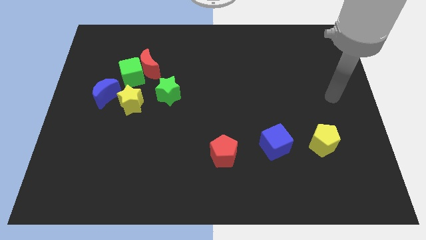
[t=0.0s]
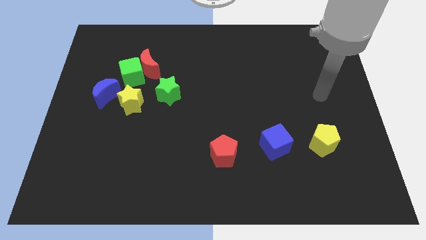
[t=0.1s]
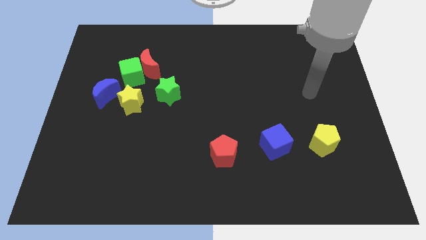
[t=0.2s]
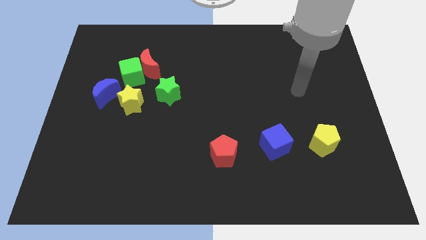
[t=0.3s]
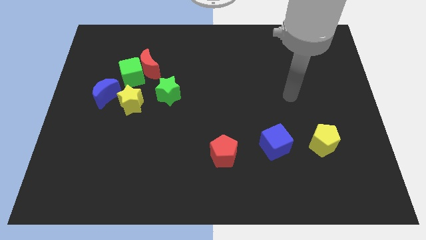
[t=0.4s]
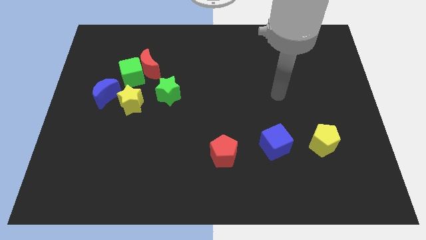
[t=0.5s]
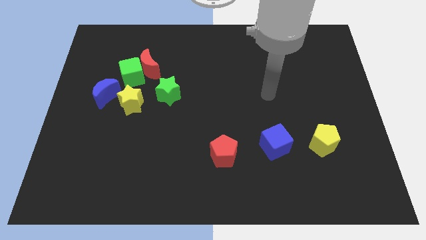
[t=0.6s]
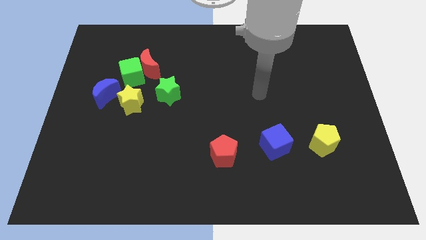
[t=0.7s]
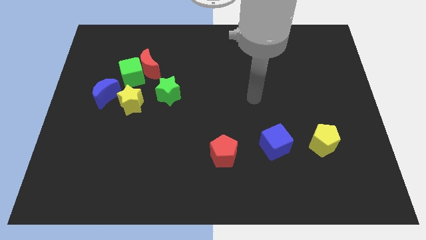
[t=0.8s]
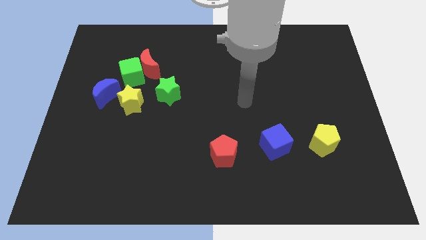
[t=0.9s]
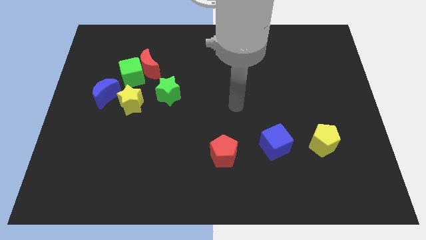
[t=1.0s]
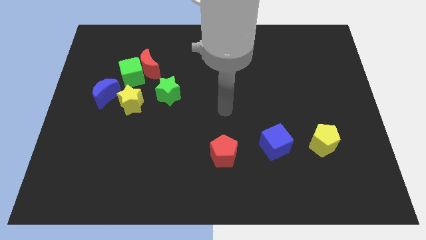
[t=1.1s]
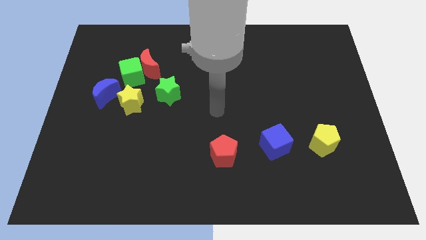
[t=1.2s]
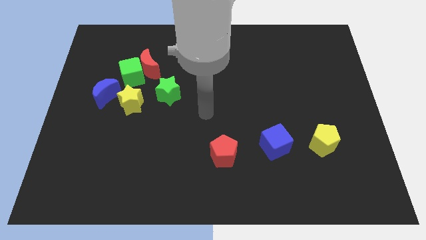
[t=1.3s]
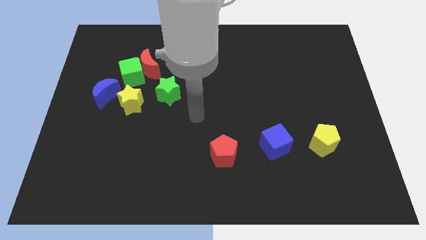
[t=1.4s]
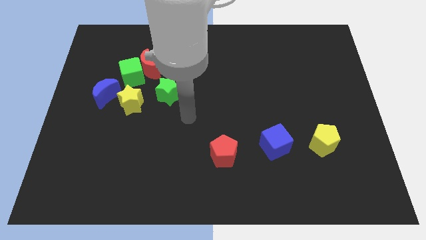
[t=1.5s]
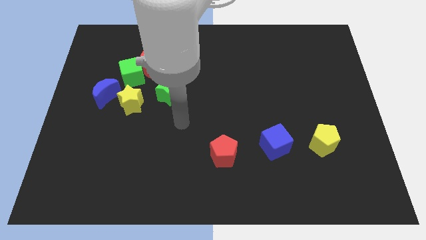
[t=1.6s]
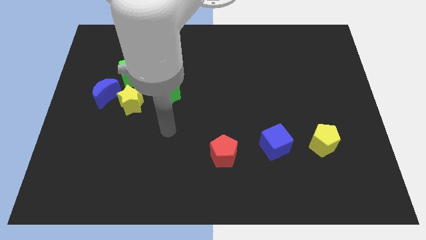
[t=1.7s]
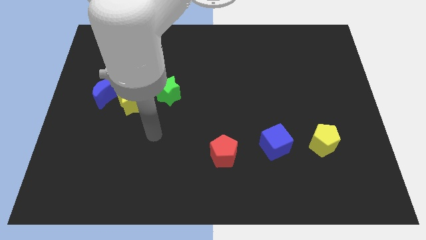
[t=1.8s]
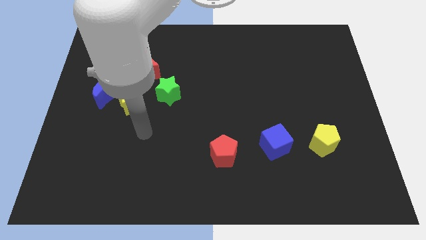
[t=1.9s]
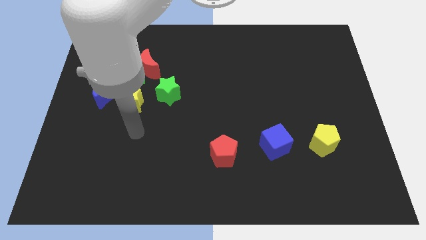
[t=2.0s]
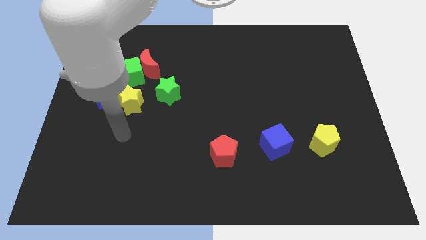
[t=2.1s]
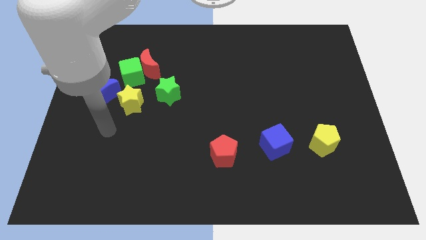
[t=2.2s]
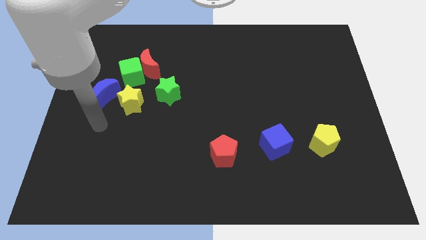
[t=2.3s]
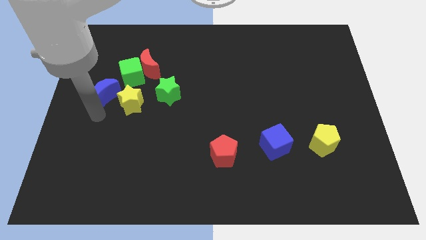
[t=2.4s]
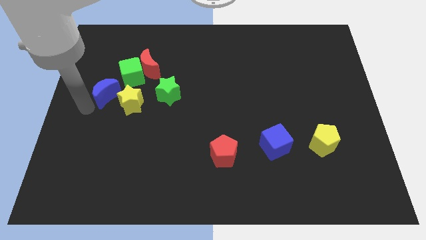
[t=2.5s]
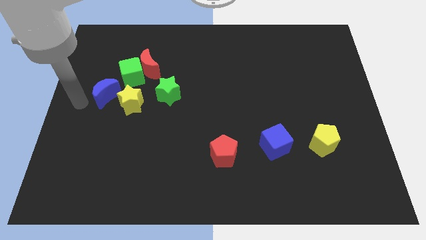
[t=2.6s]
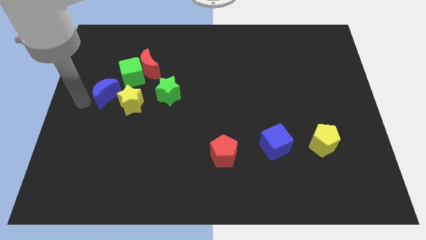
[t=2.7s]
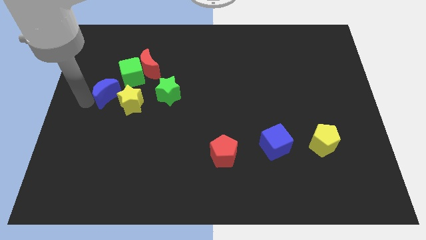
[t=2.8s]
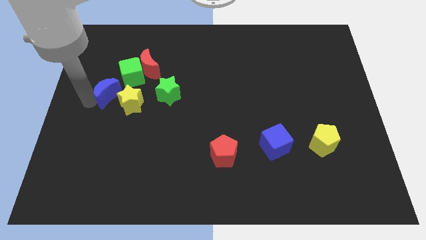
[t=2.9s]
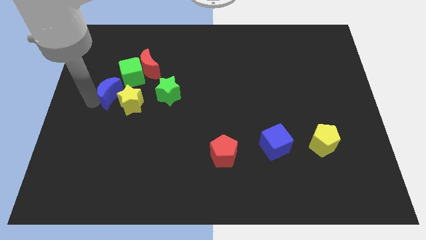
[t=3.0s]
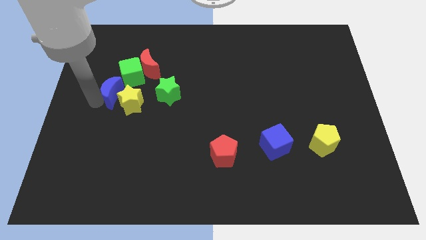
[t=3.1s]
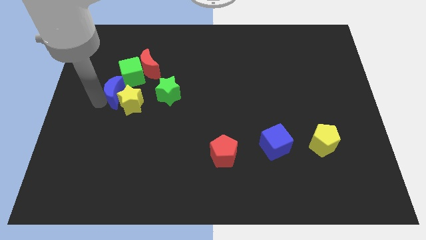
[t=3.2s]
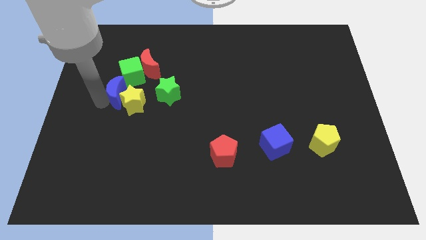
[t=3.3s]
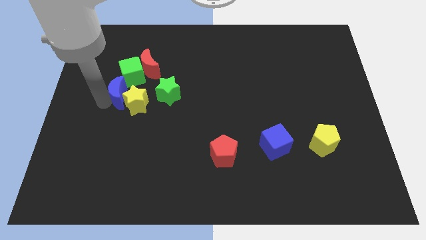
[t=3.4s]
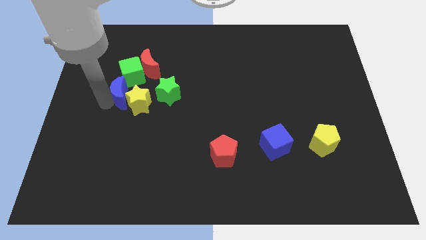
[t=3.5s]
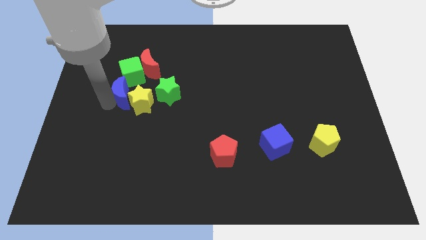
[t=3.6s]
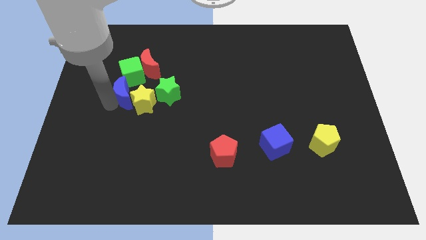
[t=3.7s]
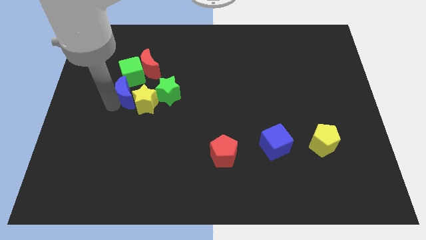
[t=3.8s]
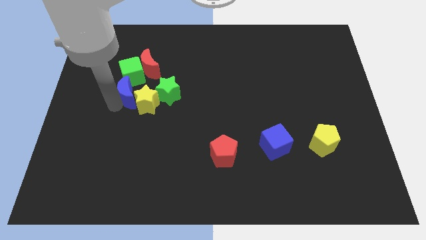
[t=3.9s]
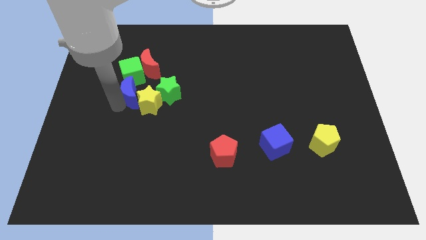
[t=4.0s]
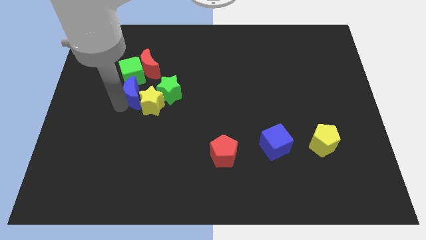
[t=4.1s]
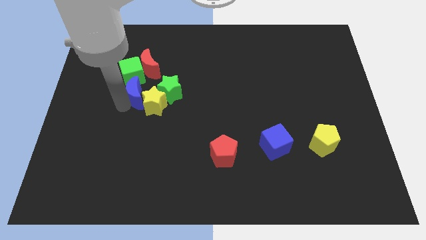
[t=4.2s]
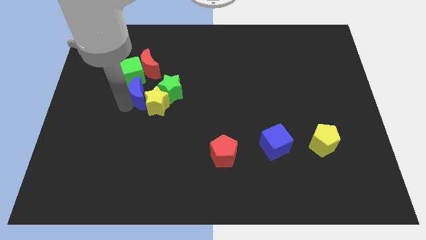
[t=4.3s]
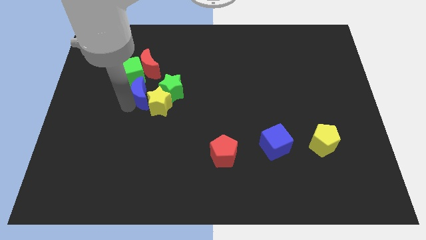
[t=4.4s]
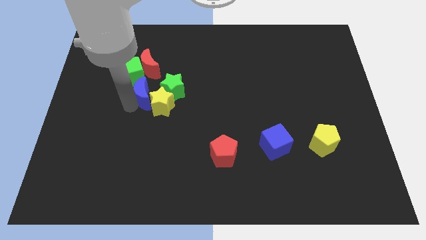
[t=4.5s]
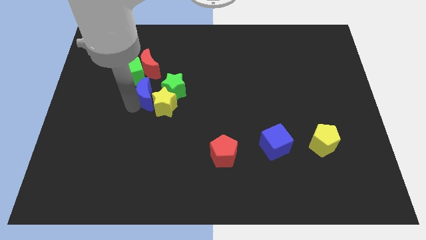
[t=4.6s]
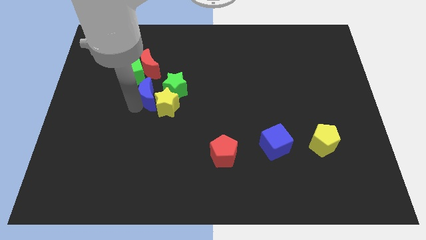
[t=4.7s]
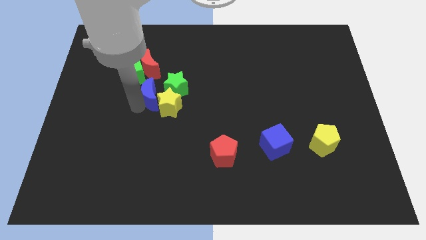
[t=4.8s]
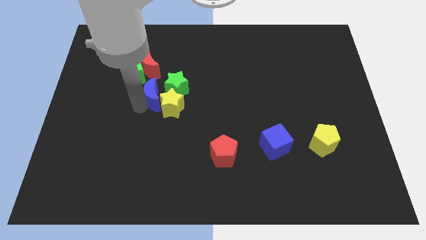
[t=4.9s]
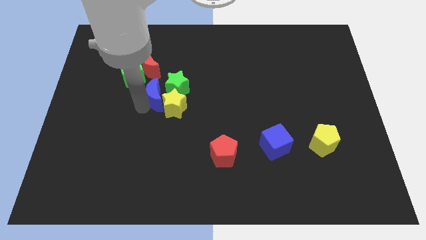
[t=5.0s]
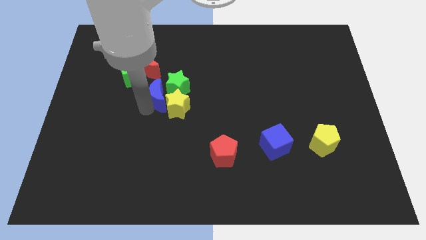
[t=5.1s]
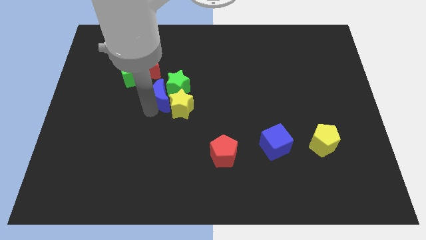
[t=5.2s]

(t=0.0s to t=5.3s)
push the blue moon to the center of the board

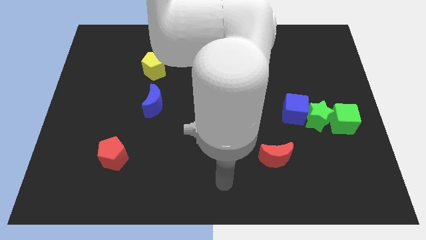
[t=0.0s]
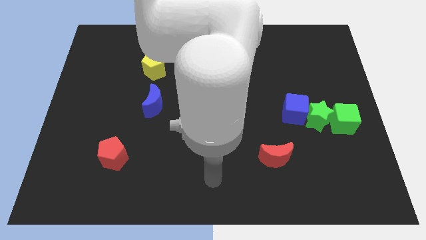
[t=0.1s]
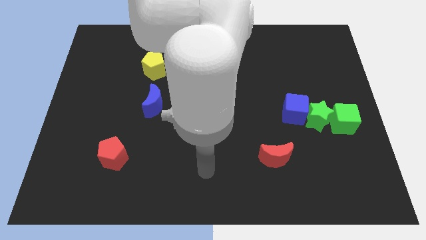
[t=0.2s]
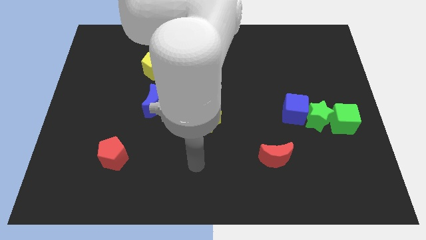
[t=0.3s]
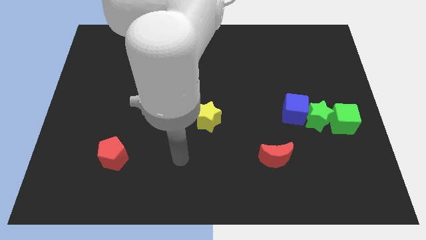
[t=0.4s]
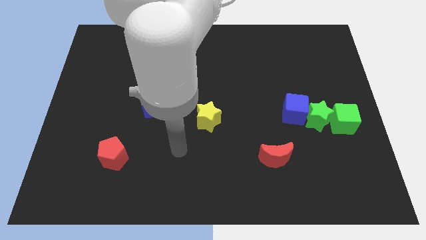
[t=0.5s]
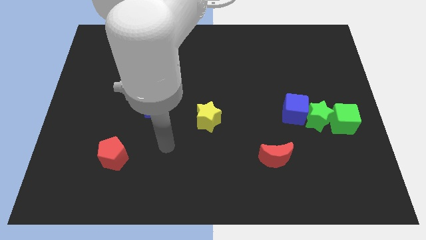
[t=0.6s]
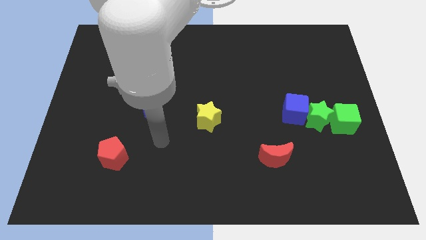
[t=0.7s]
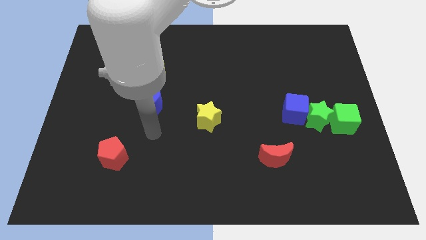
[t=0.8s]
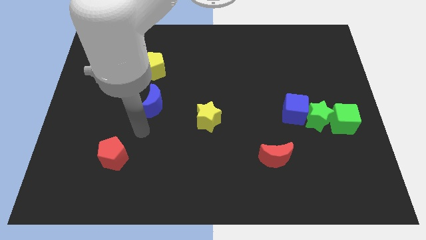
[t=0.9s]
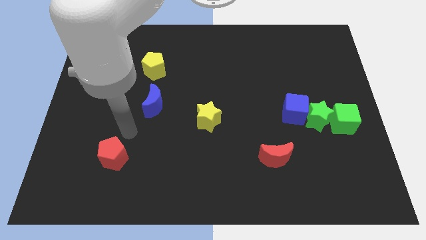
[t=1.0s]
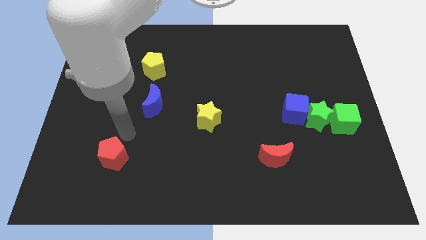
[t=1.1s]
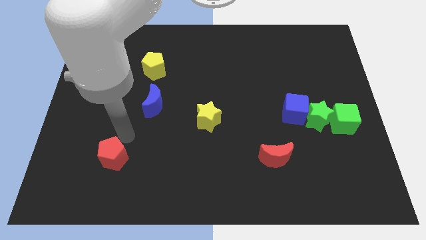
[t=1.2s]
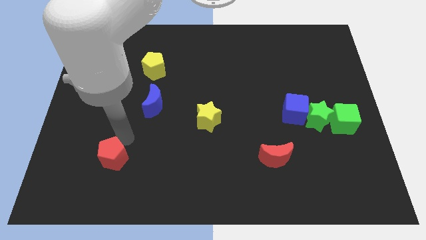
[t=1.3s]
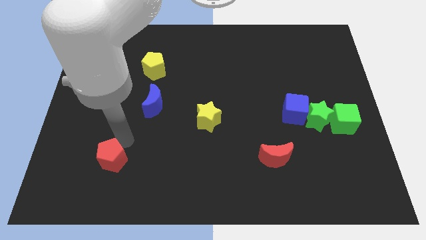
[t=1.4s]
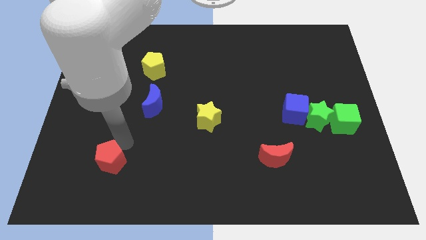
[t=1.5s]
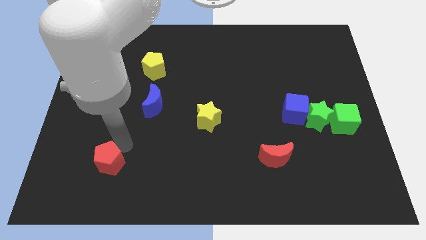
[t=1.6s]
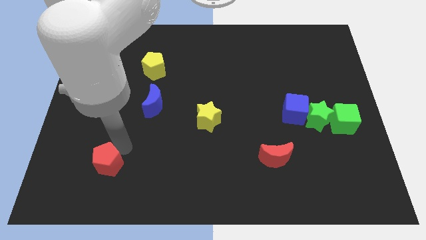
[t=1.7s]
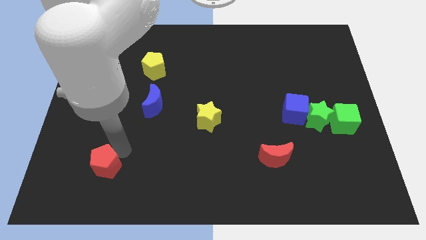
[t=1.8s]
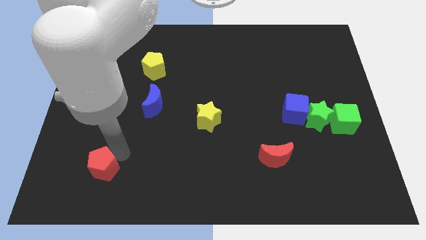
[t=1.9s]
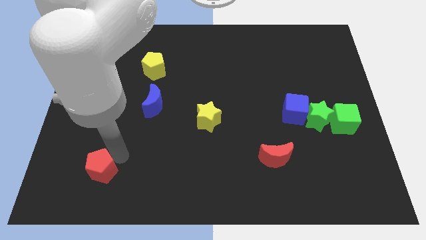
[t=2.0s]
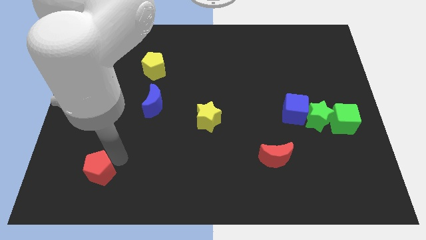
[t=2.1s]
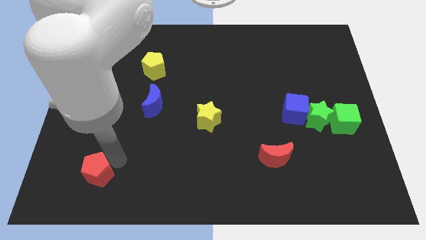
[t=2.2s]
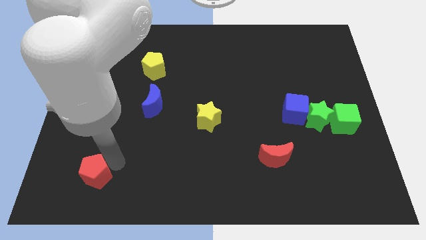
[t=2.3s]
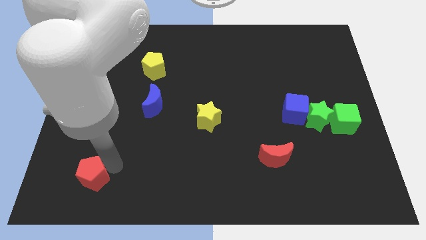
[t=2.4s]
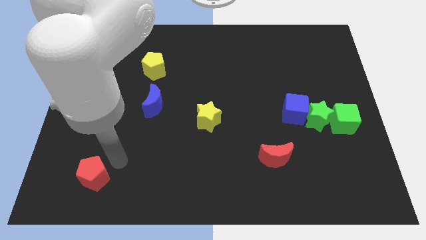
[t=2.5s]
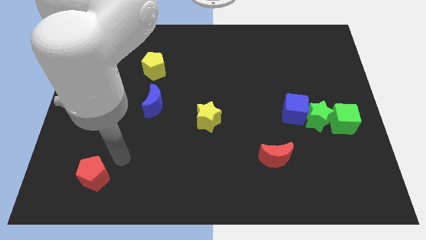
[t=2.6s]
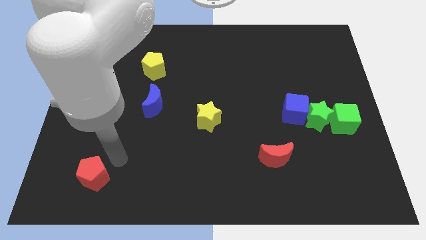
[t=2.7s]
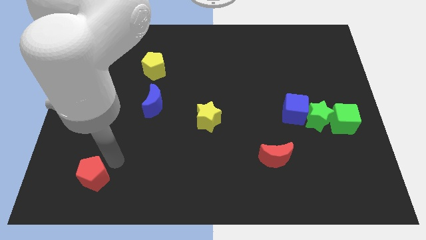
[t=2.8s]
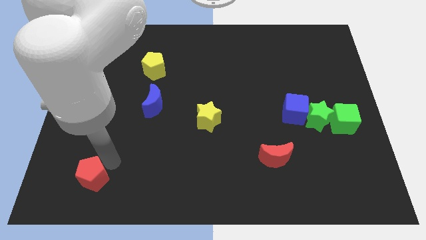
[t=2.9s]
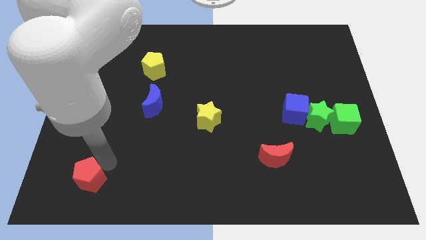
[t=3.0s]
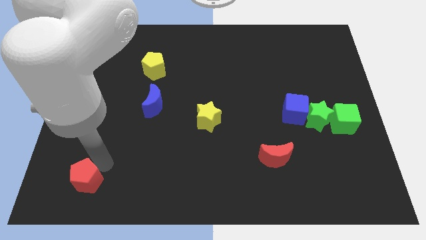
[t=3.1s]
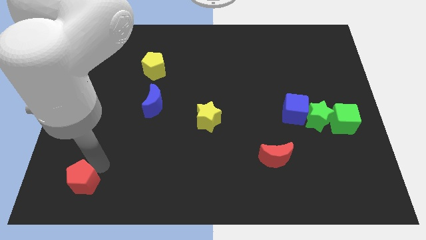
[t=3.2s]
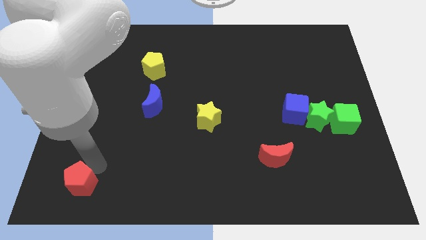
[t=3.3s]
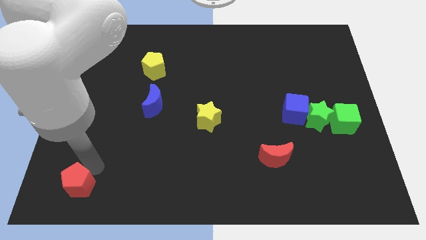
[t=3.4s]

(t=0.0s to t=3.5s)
put the red pentagon to the lower left corner
